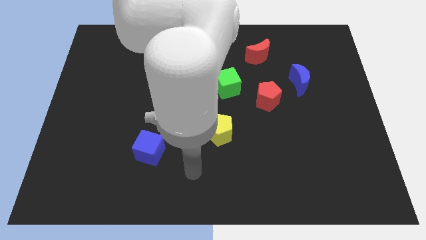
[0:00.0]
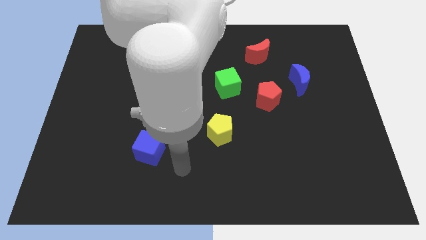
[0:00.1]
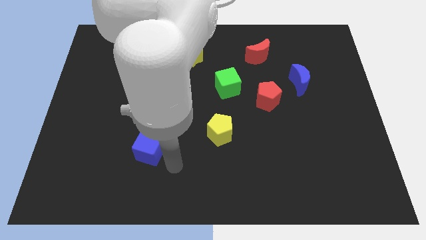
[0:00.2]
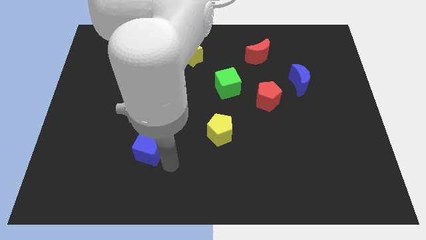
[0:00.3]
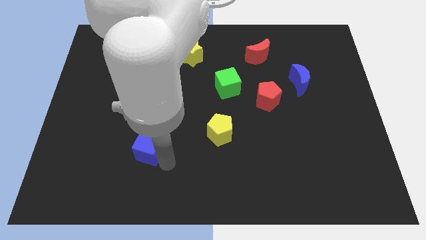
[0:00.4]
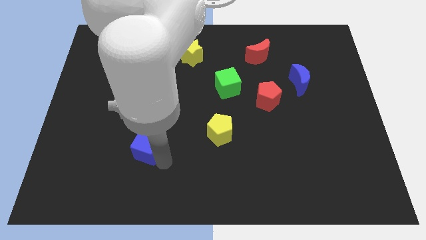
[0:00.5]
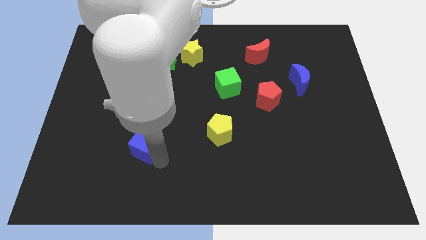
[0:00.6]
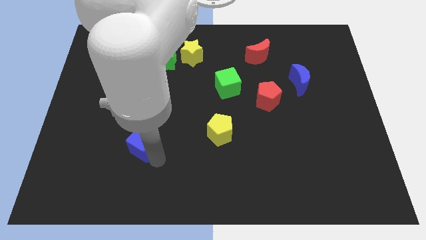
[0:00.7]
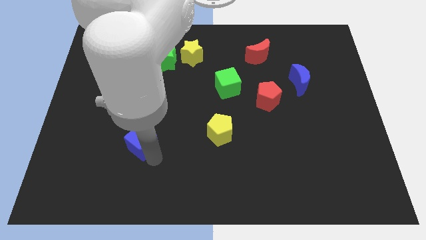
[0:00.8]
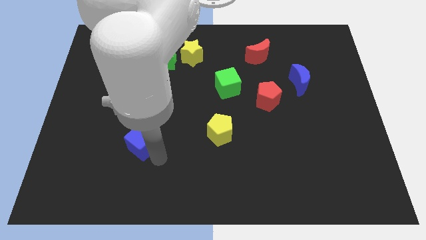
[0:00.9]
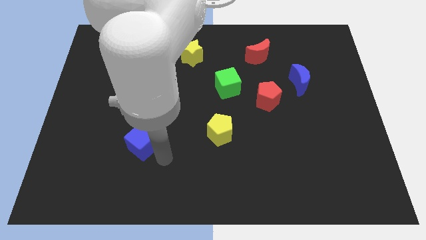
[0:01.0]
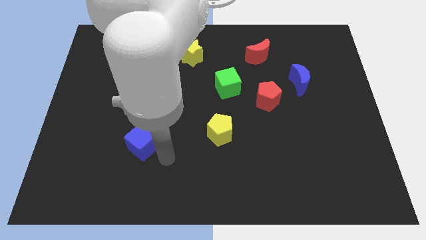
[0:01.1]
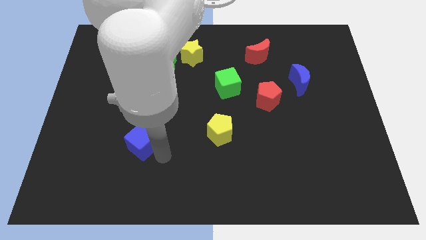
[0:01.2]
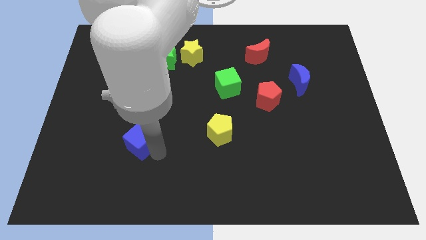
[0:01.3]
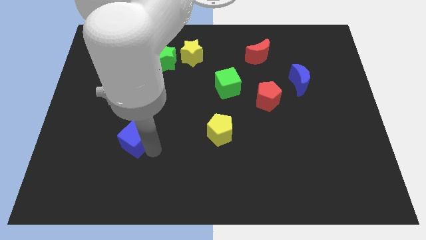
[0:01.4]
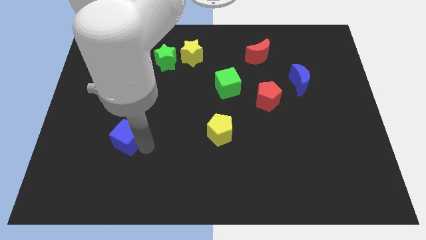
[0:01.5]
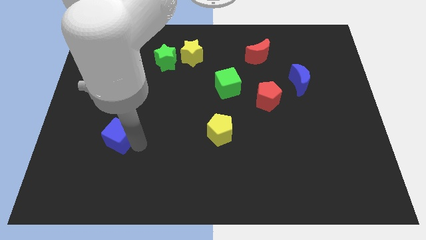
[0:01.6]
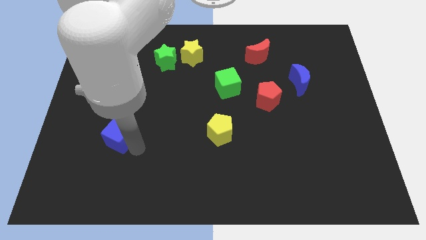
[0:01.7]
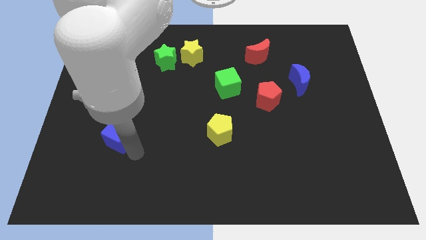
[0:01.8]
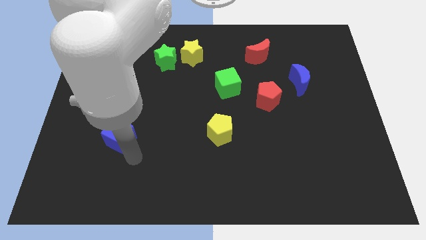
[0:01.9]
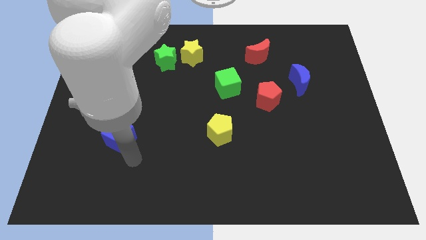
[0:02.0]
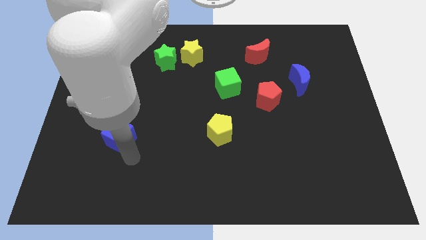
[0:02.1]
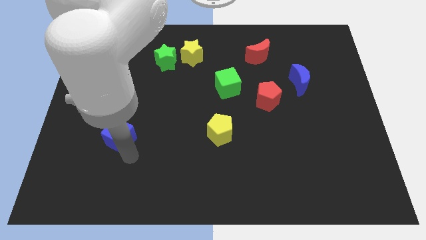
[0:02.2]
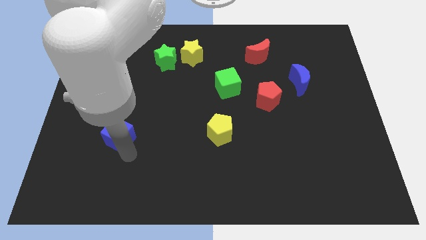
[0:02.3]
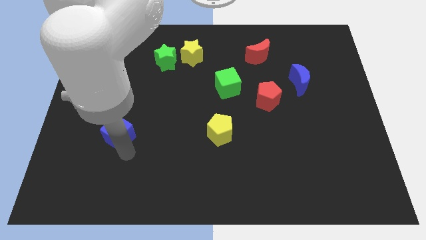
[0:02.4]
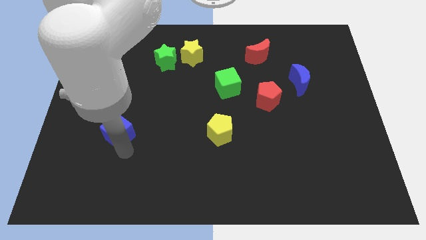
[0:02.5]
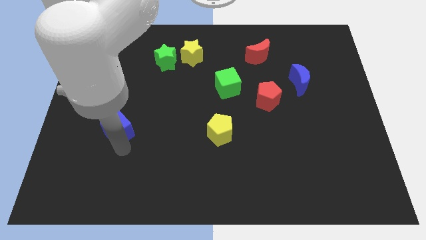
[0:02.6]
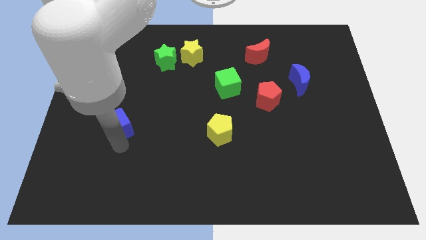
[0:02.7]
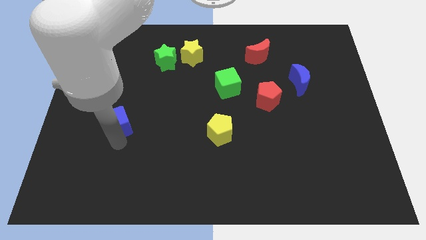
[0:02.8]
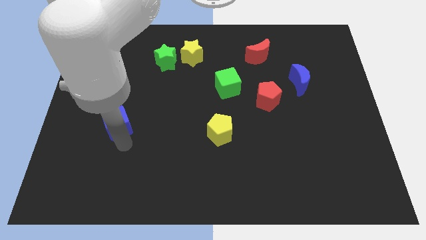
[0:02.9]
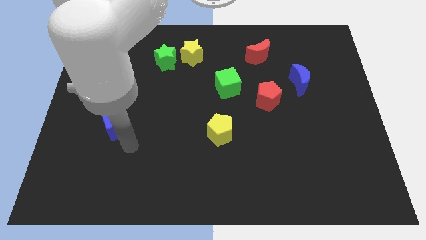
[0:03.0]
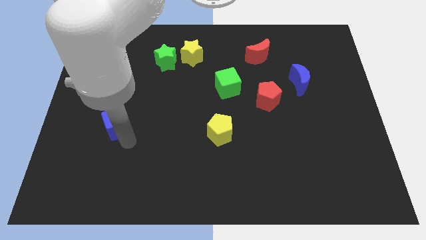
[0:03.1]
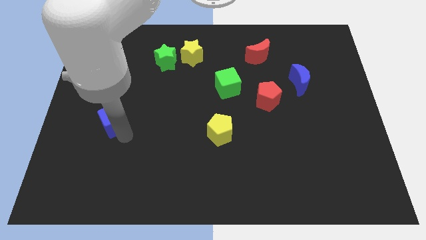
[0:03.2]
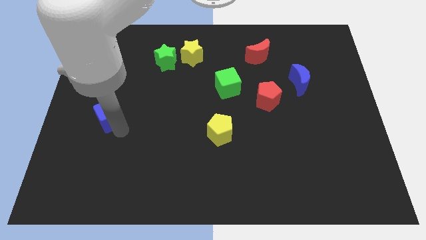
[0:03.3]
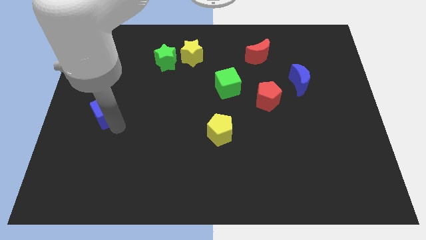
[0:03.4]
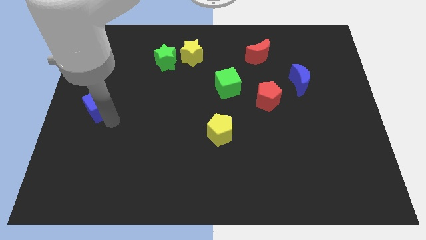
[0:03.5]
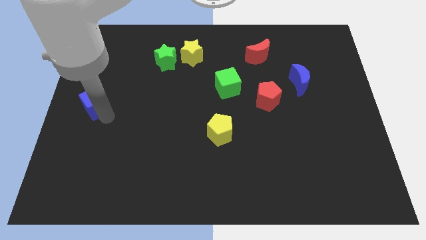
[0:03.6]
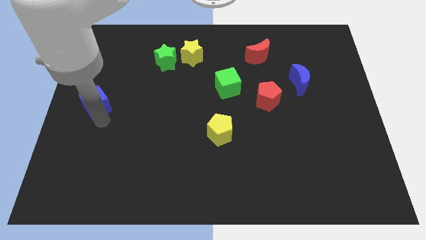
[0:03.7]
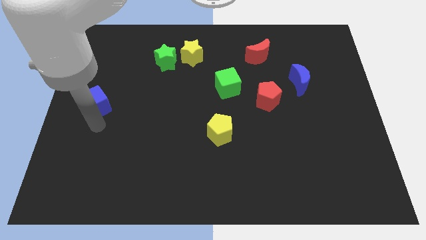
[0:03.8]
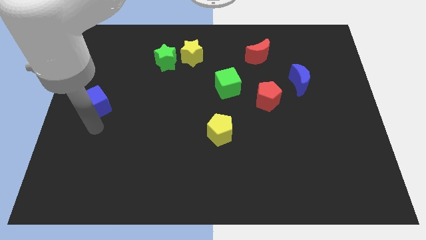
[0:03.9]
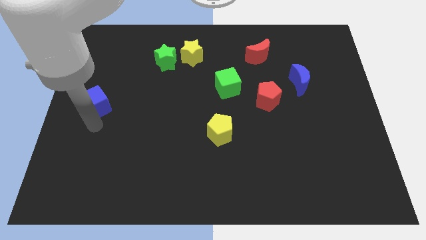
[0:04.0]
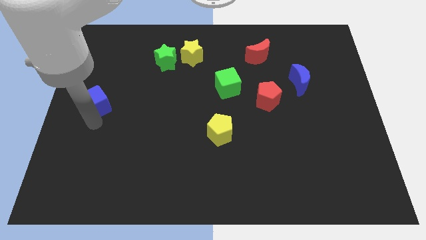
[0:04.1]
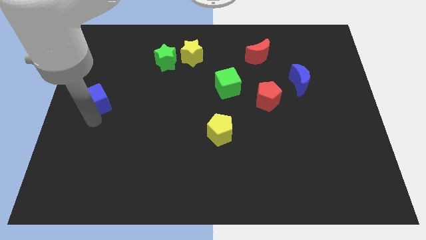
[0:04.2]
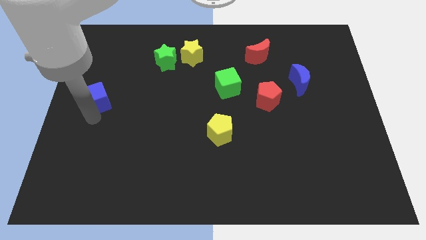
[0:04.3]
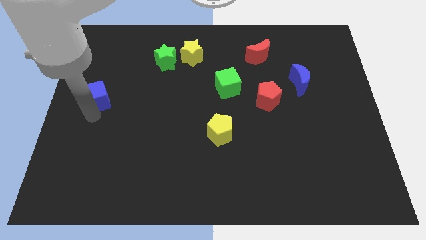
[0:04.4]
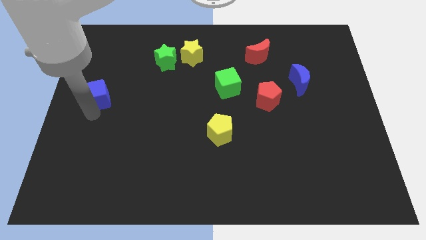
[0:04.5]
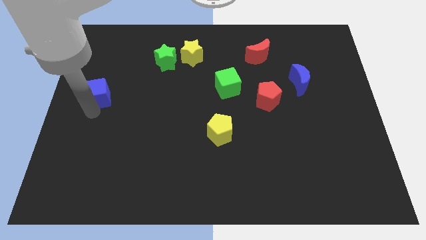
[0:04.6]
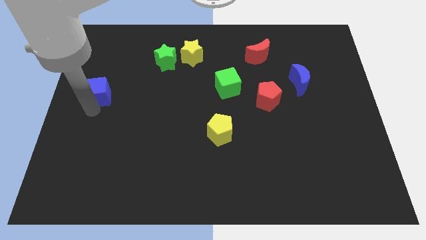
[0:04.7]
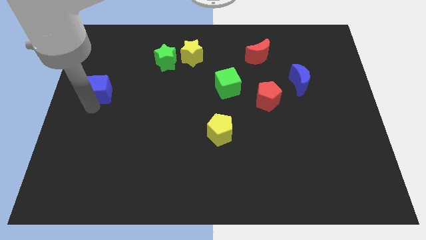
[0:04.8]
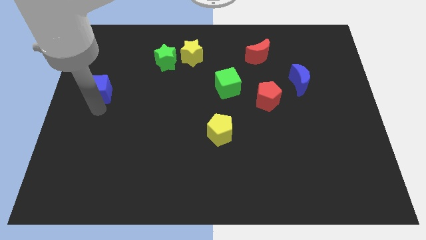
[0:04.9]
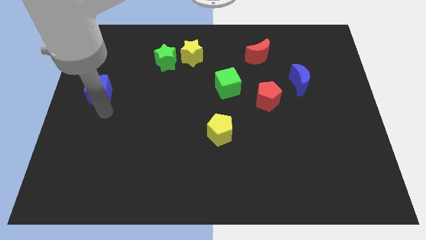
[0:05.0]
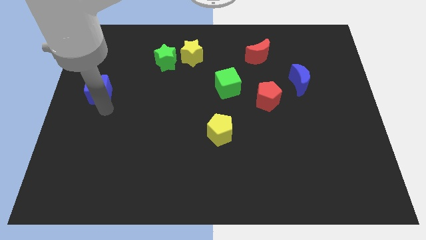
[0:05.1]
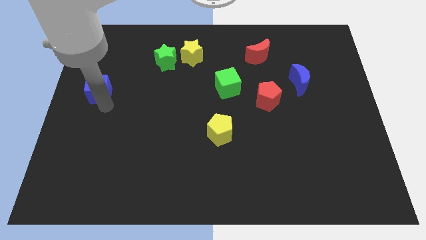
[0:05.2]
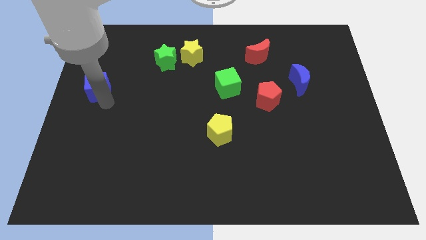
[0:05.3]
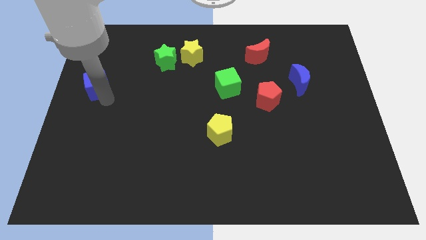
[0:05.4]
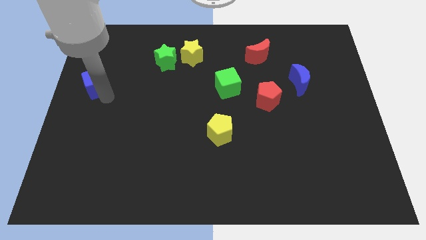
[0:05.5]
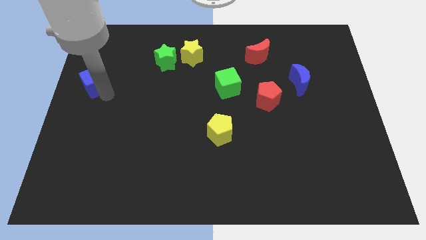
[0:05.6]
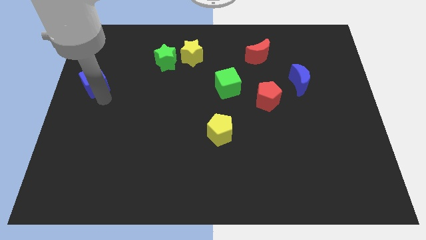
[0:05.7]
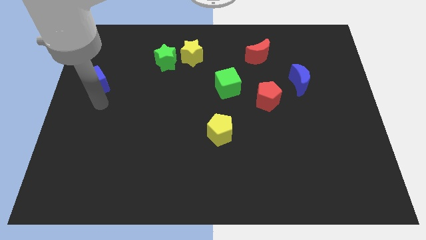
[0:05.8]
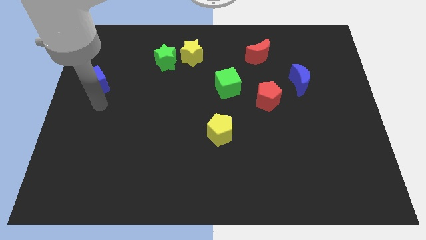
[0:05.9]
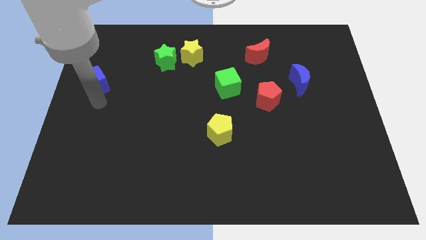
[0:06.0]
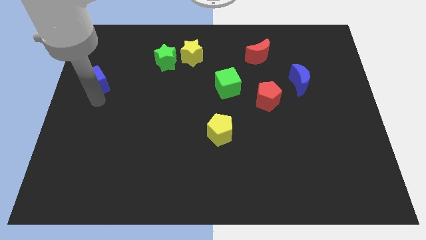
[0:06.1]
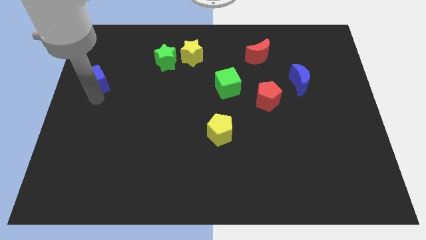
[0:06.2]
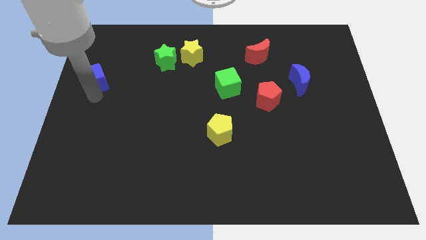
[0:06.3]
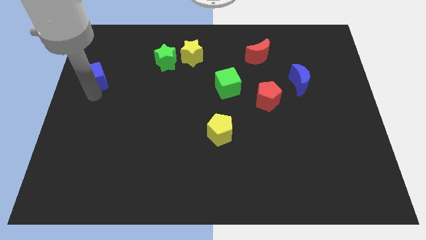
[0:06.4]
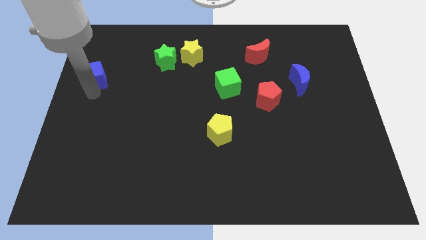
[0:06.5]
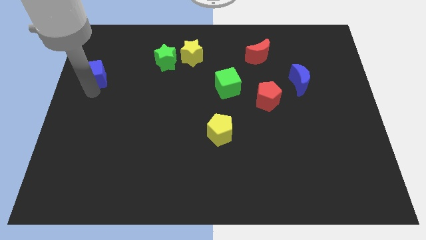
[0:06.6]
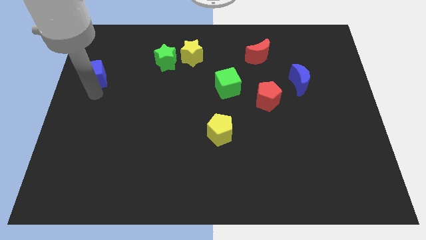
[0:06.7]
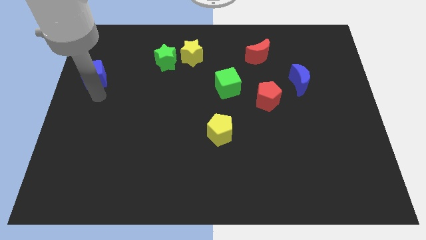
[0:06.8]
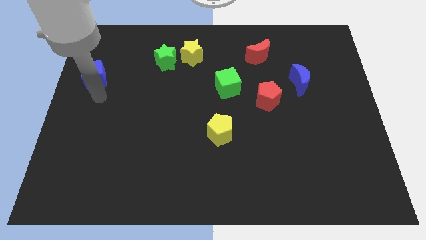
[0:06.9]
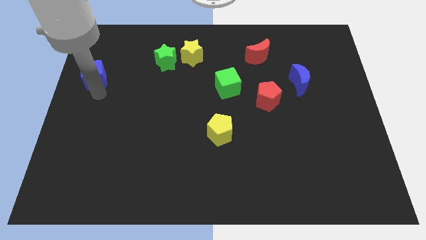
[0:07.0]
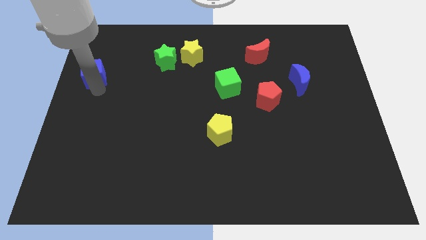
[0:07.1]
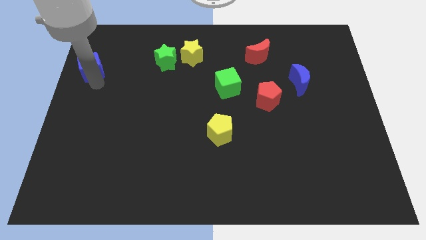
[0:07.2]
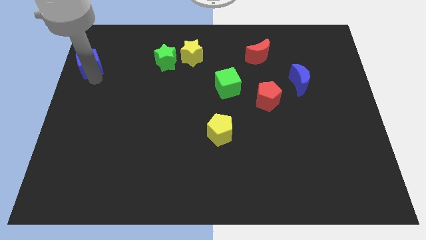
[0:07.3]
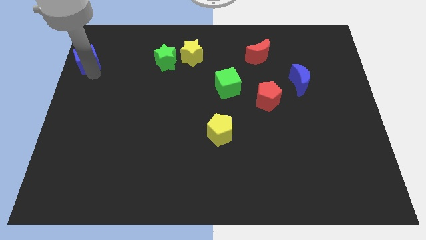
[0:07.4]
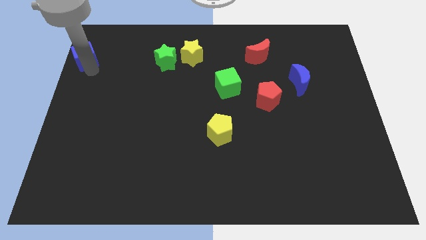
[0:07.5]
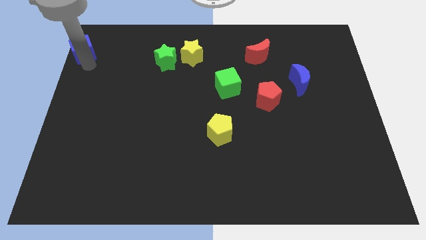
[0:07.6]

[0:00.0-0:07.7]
slide the blue cube to the upper left corner
